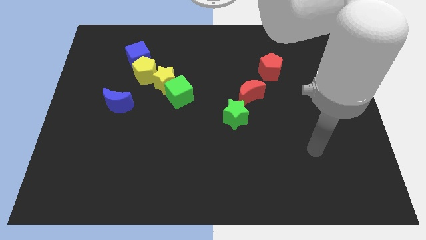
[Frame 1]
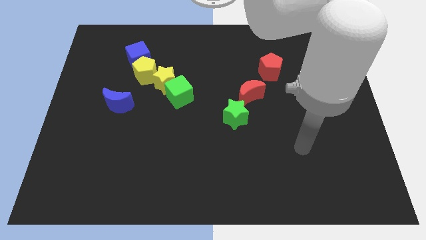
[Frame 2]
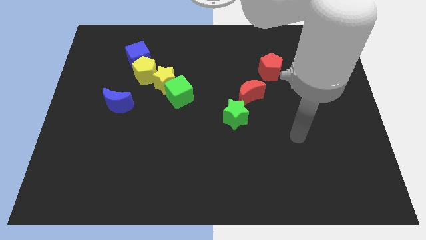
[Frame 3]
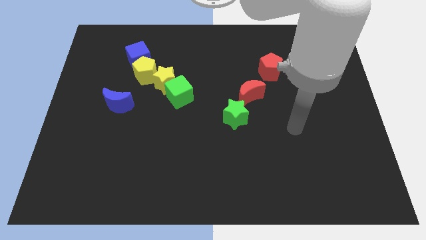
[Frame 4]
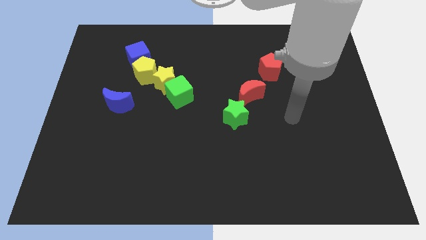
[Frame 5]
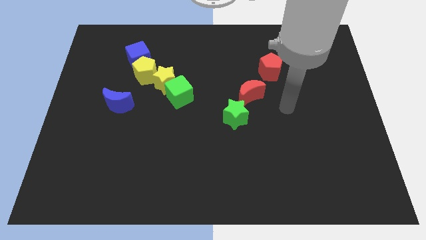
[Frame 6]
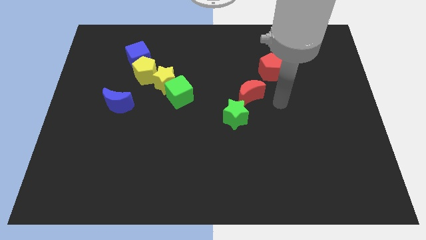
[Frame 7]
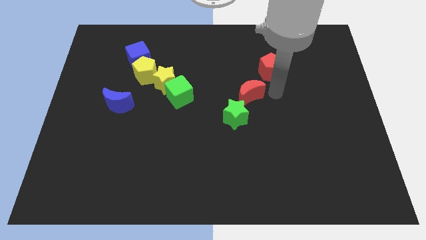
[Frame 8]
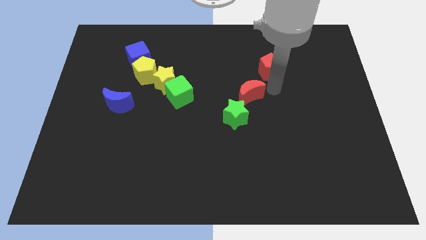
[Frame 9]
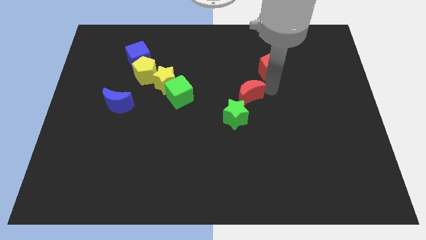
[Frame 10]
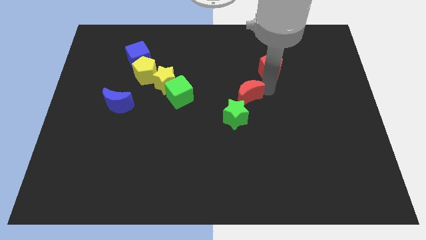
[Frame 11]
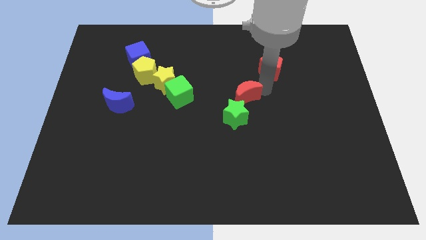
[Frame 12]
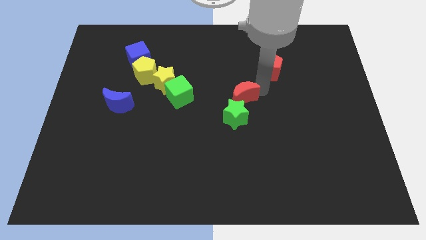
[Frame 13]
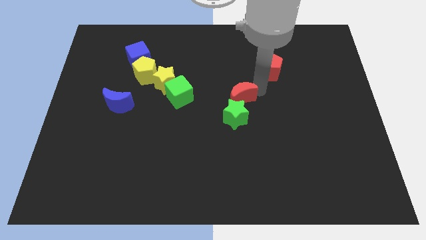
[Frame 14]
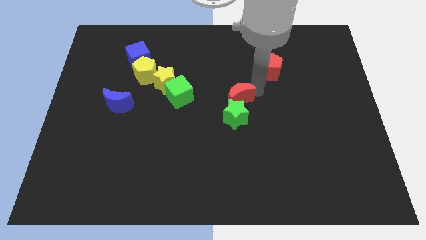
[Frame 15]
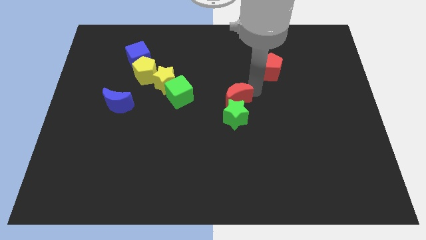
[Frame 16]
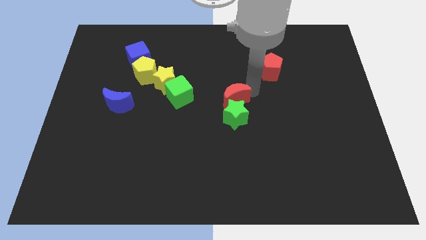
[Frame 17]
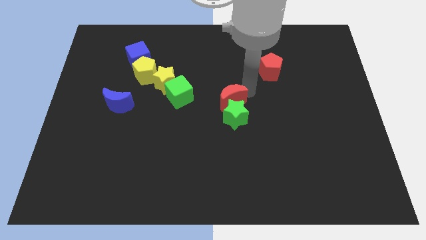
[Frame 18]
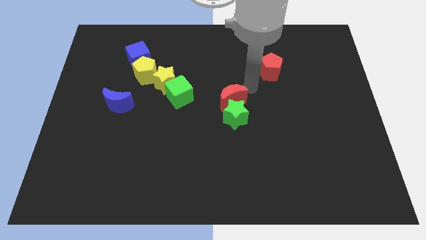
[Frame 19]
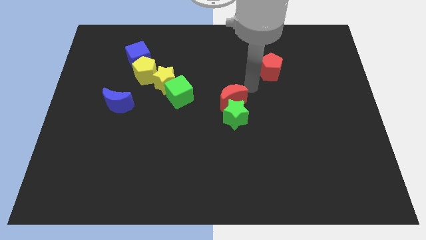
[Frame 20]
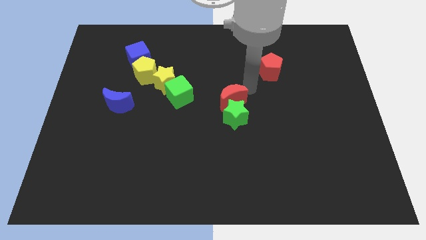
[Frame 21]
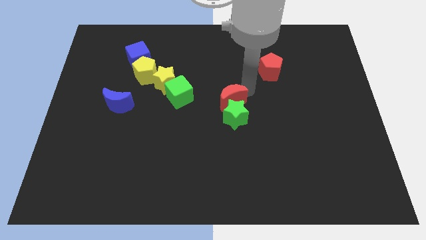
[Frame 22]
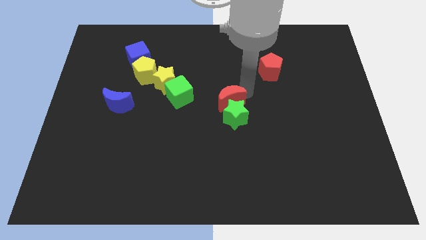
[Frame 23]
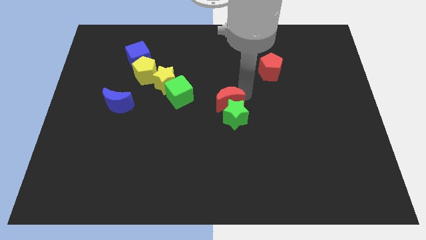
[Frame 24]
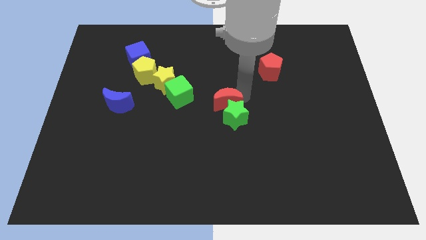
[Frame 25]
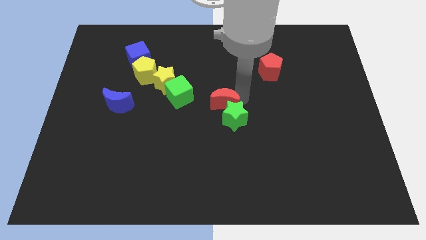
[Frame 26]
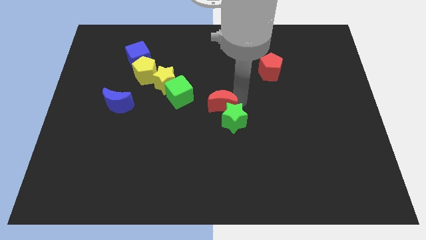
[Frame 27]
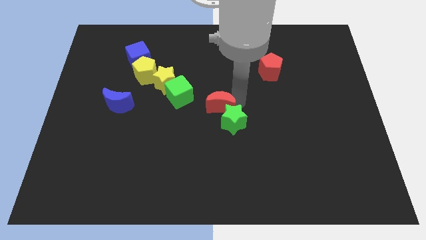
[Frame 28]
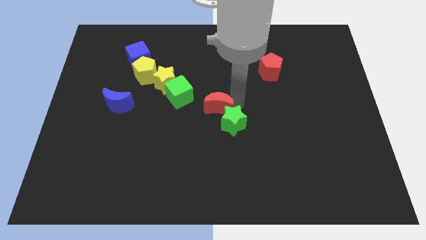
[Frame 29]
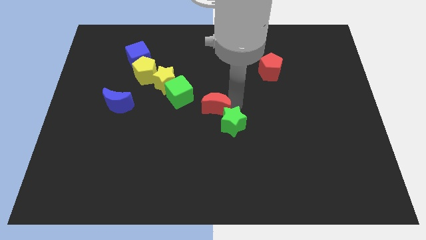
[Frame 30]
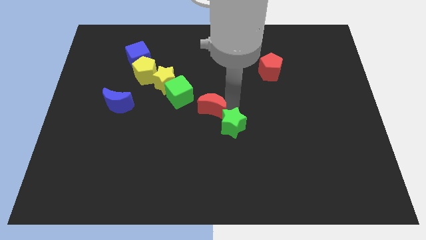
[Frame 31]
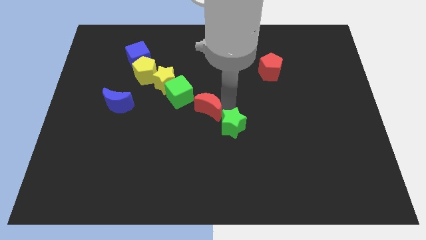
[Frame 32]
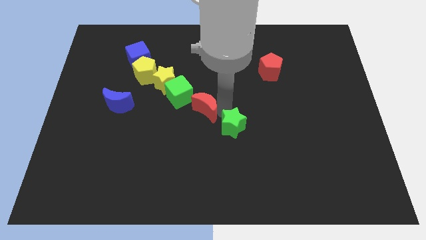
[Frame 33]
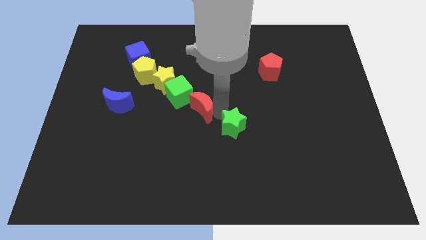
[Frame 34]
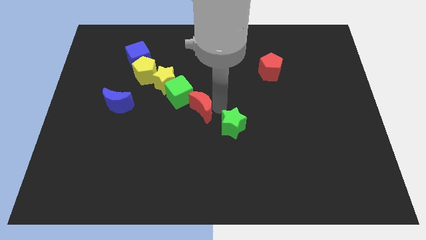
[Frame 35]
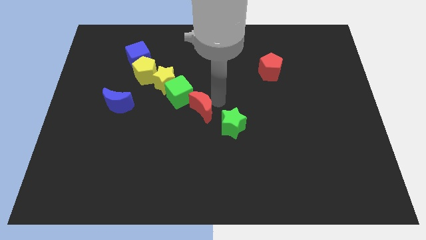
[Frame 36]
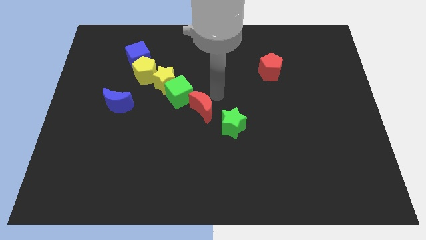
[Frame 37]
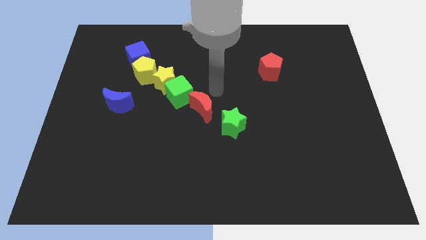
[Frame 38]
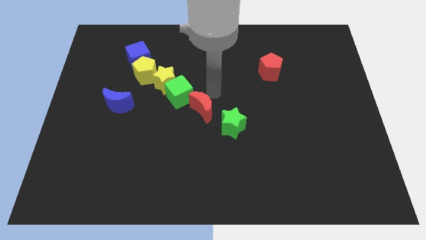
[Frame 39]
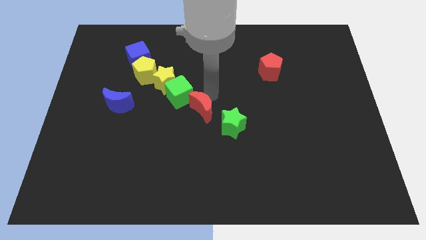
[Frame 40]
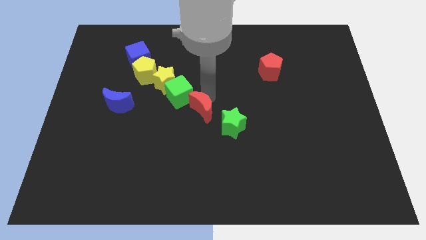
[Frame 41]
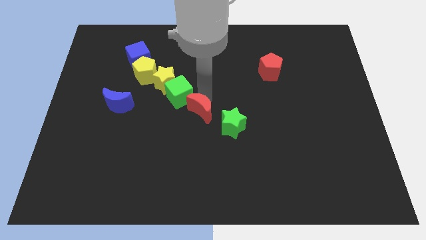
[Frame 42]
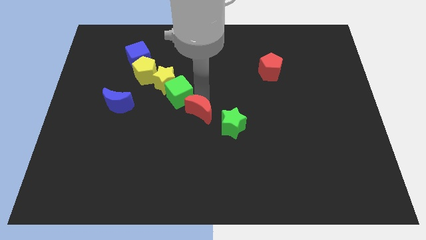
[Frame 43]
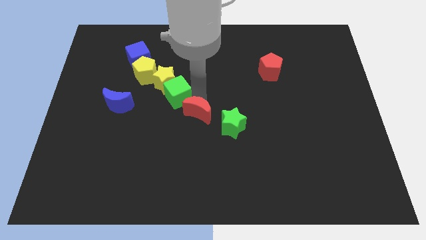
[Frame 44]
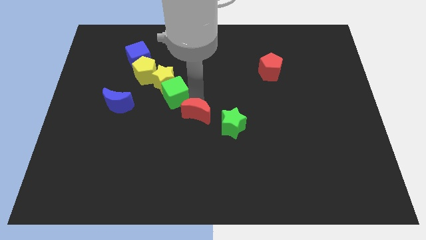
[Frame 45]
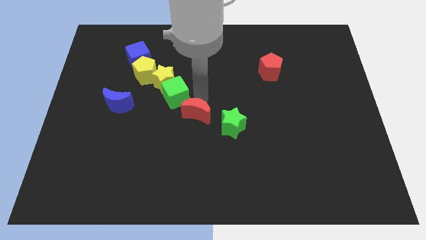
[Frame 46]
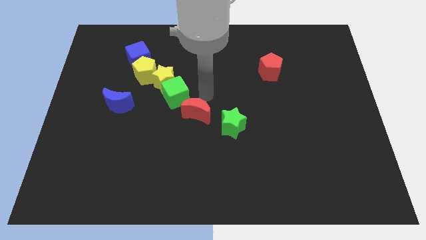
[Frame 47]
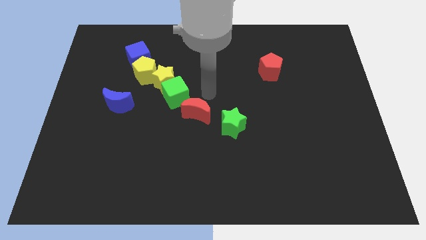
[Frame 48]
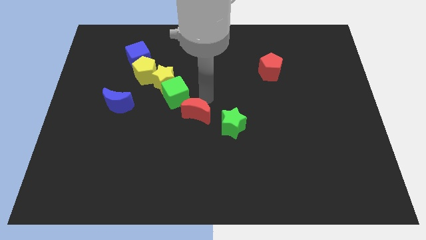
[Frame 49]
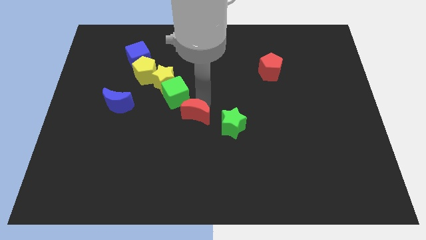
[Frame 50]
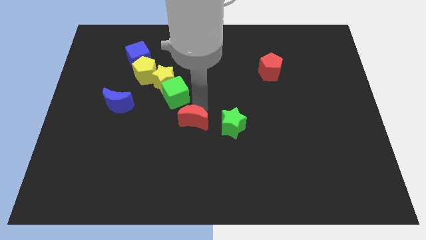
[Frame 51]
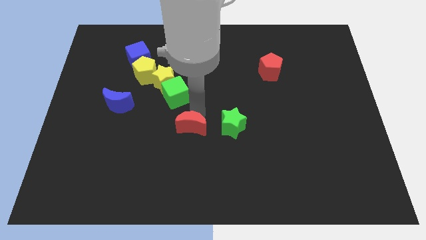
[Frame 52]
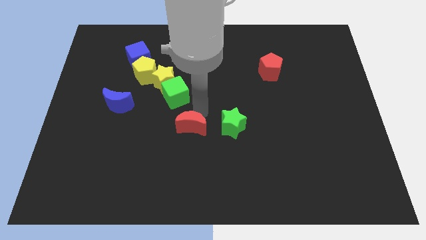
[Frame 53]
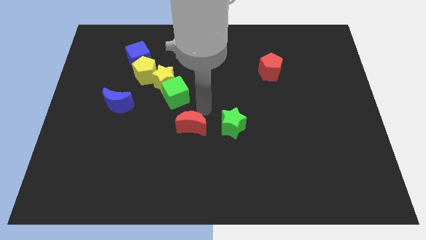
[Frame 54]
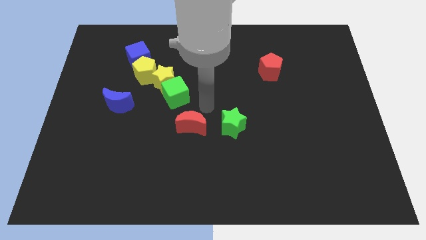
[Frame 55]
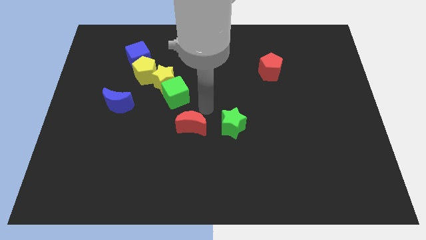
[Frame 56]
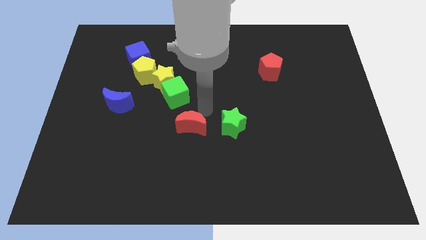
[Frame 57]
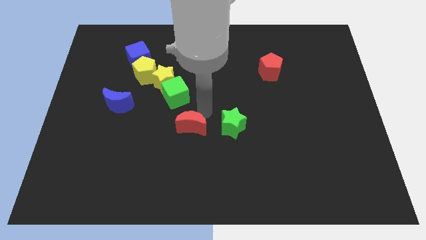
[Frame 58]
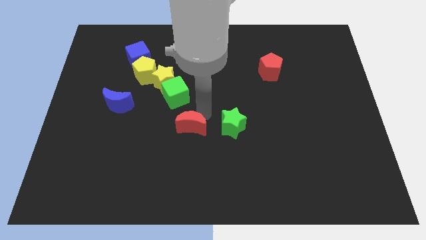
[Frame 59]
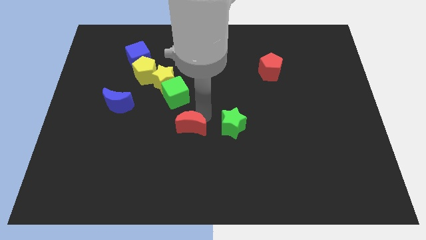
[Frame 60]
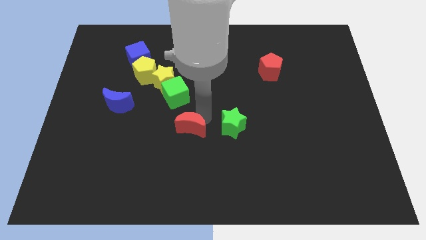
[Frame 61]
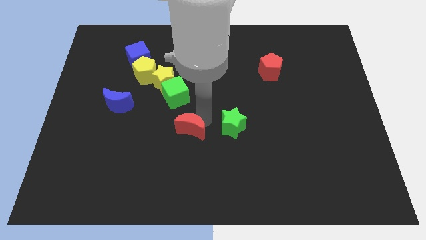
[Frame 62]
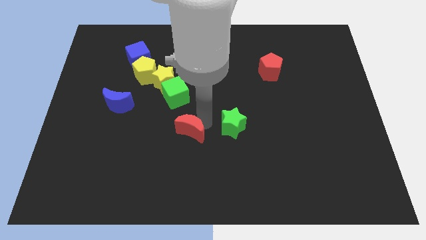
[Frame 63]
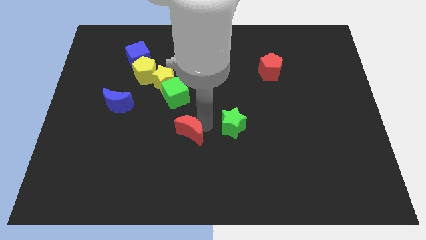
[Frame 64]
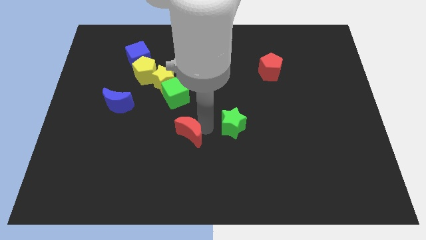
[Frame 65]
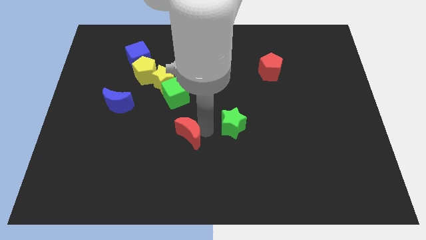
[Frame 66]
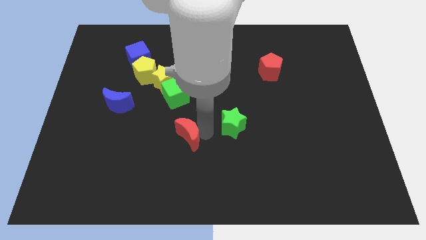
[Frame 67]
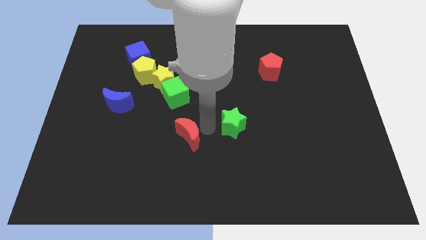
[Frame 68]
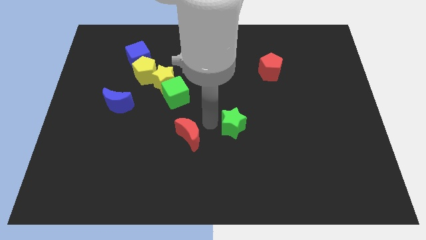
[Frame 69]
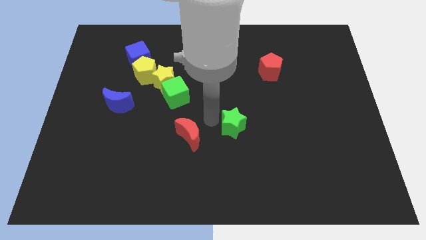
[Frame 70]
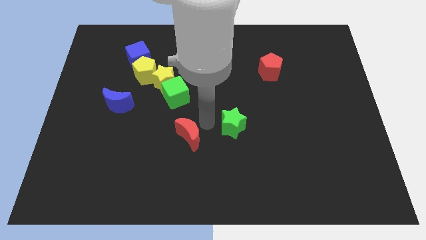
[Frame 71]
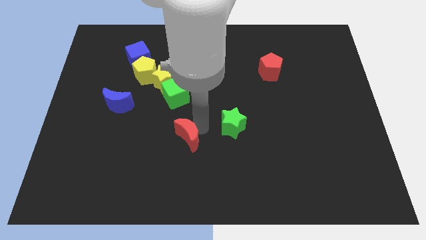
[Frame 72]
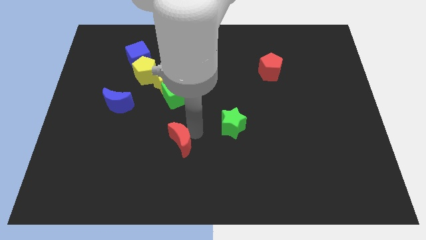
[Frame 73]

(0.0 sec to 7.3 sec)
move the red moon downwards and to the left

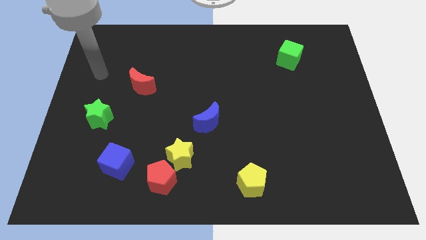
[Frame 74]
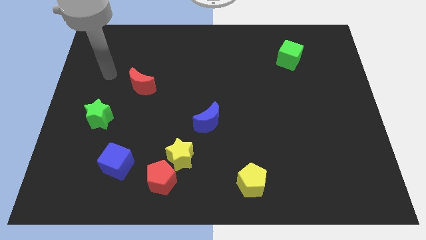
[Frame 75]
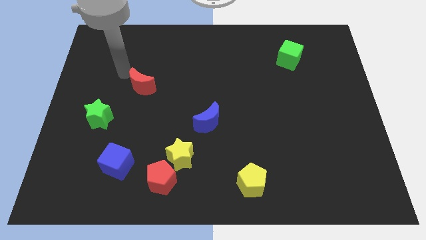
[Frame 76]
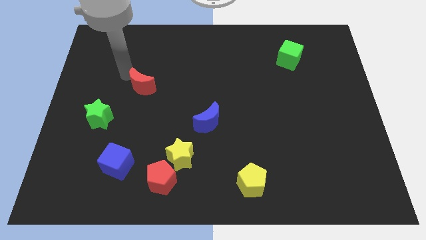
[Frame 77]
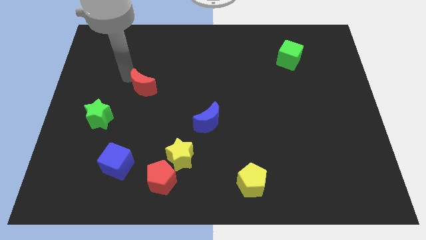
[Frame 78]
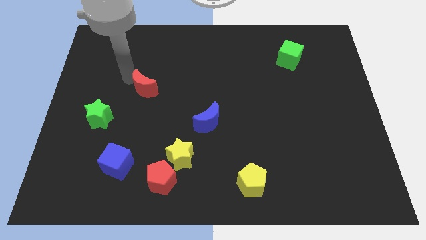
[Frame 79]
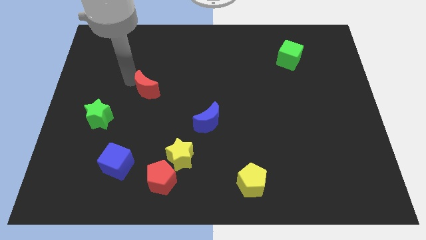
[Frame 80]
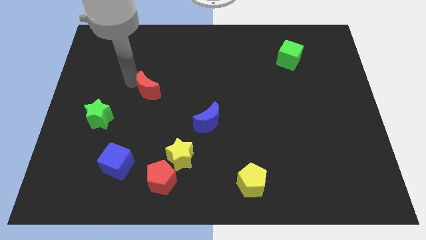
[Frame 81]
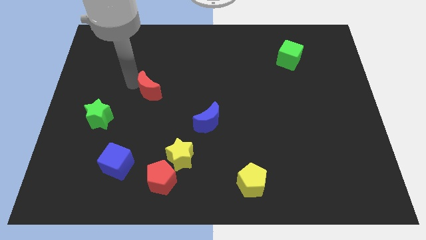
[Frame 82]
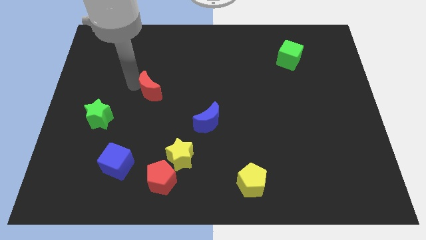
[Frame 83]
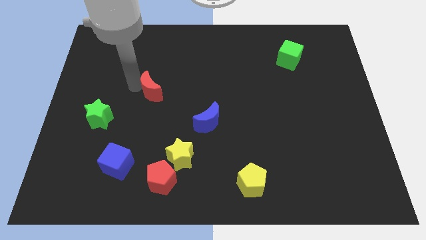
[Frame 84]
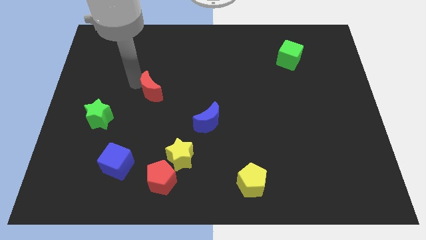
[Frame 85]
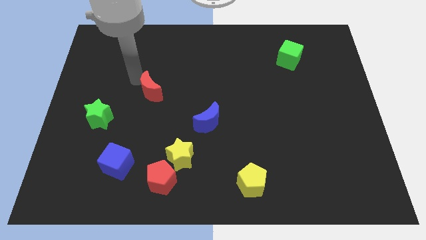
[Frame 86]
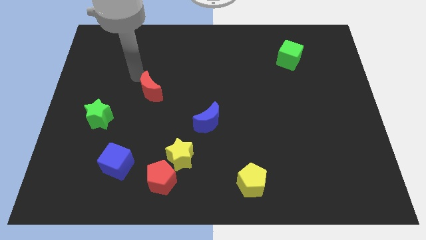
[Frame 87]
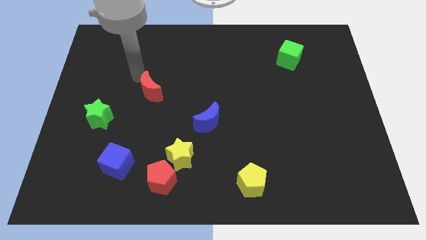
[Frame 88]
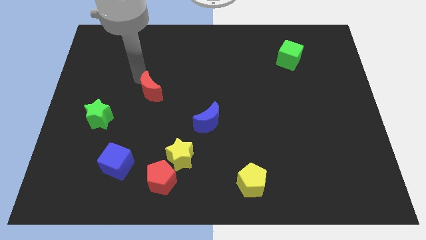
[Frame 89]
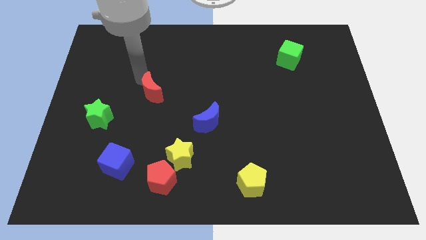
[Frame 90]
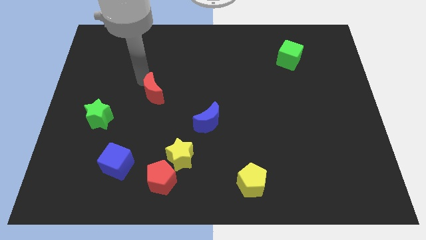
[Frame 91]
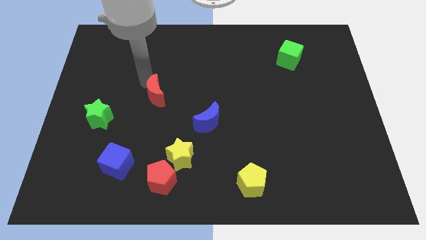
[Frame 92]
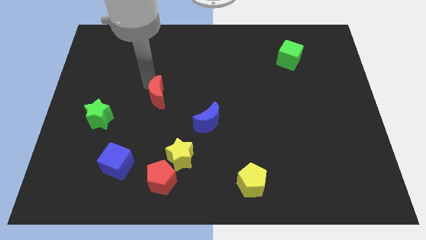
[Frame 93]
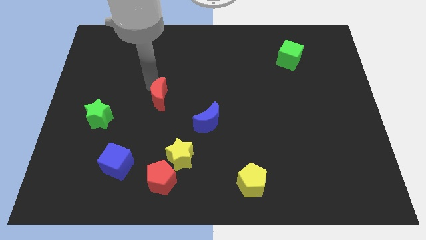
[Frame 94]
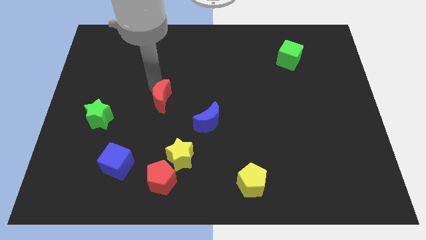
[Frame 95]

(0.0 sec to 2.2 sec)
push the red moon diagonally downwards and right a bit
